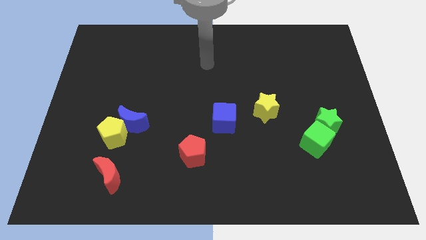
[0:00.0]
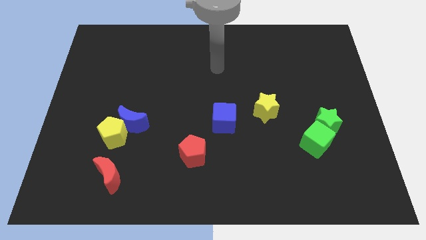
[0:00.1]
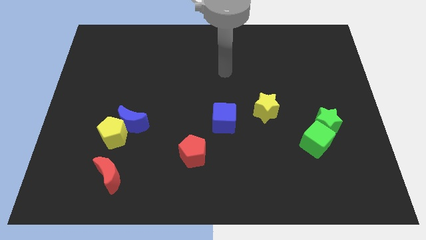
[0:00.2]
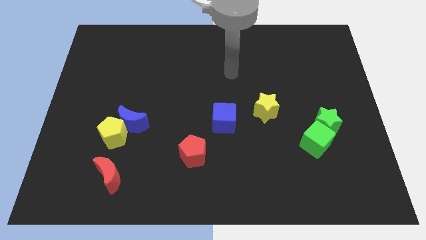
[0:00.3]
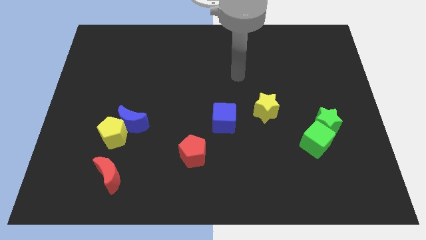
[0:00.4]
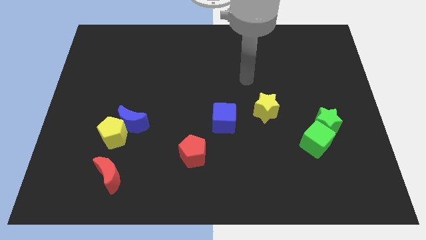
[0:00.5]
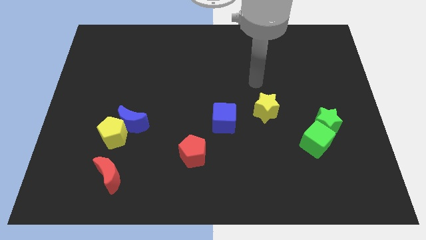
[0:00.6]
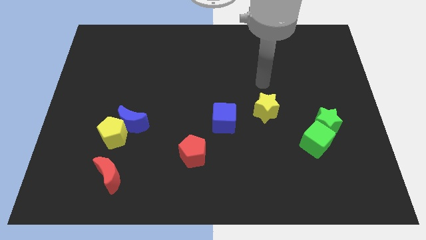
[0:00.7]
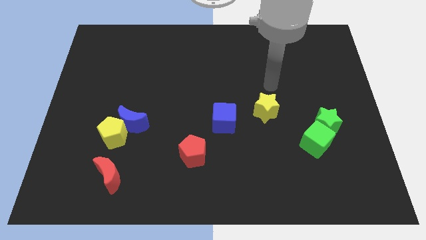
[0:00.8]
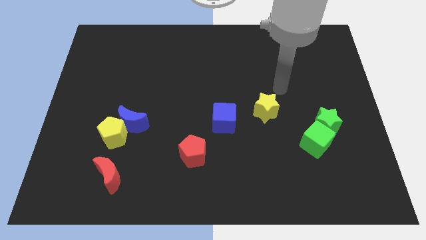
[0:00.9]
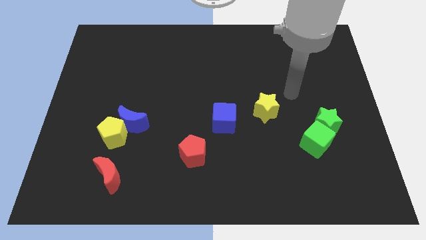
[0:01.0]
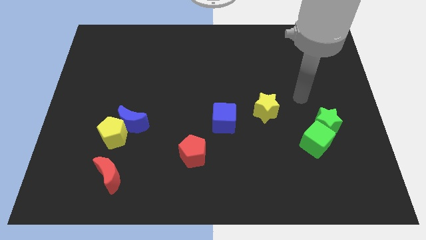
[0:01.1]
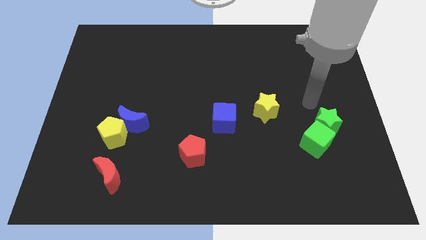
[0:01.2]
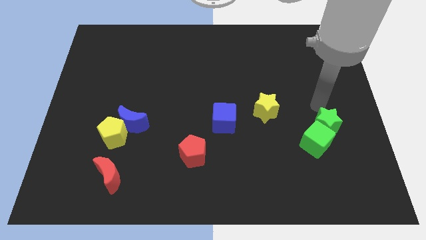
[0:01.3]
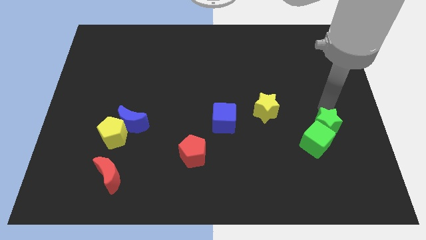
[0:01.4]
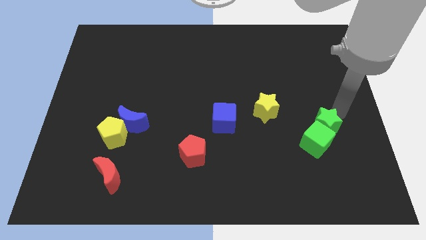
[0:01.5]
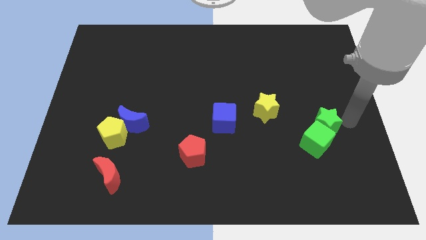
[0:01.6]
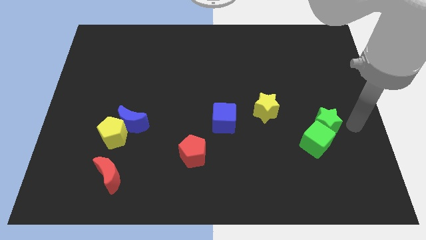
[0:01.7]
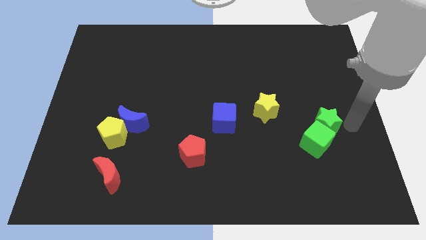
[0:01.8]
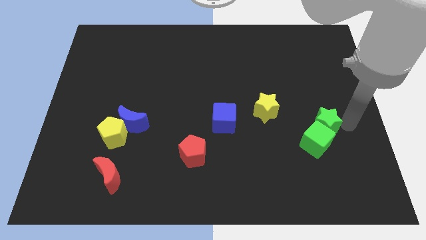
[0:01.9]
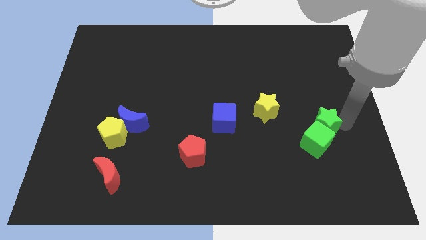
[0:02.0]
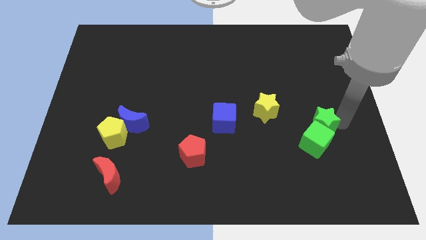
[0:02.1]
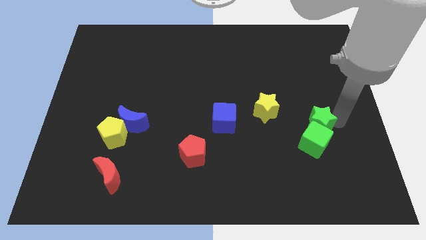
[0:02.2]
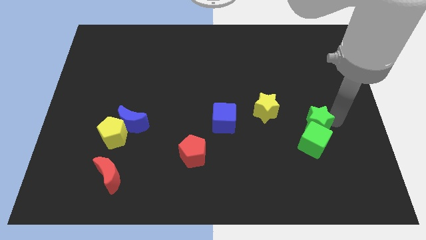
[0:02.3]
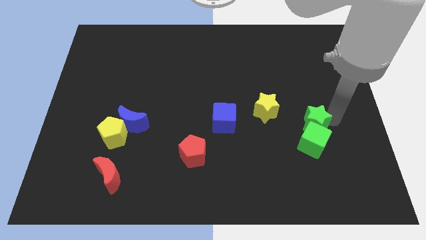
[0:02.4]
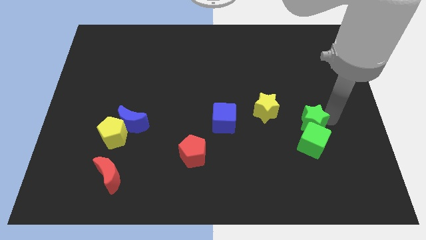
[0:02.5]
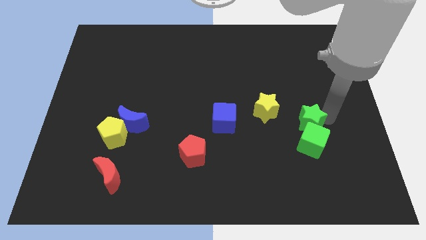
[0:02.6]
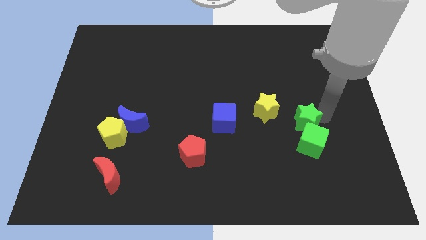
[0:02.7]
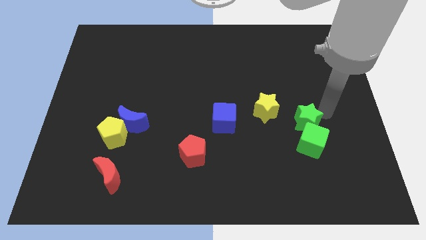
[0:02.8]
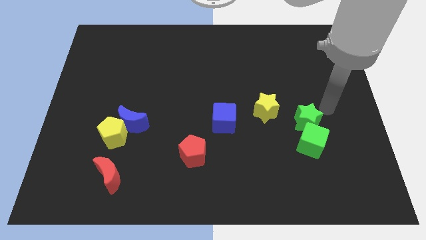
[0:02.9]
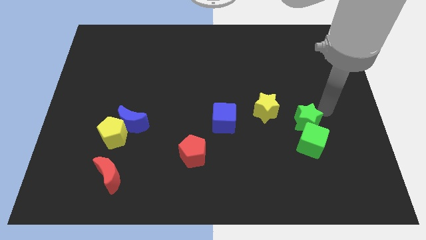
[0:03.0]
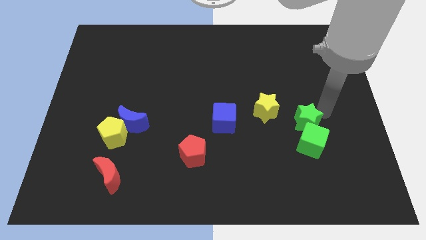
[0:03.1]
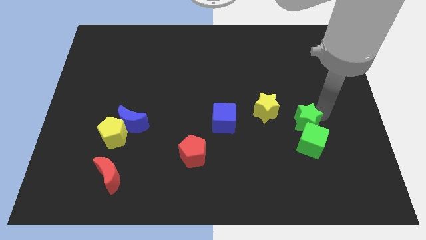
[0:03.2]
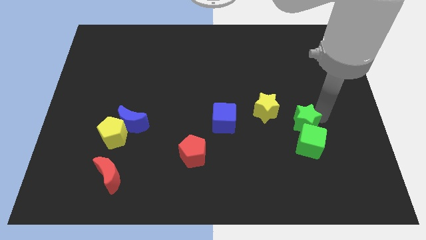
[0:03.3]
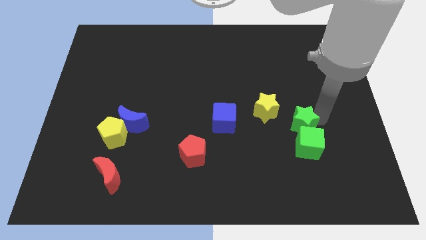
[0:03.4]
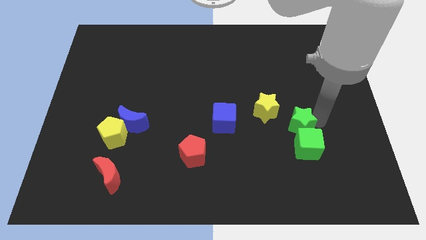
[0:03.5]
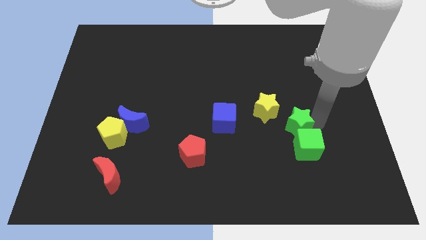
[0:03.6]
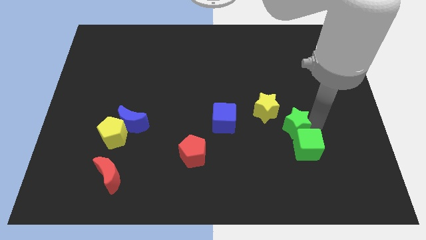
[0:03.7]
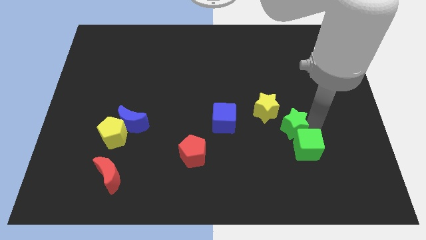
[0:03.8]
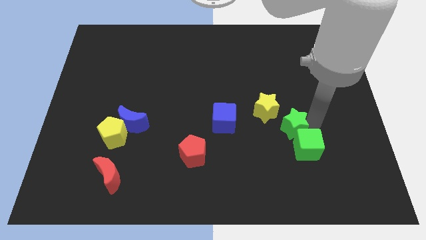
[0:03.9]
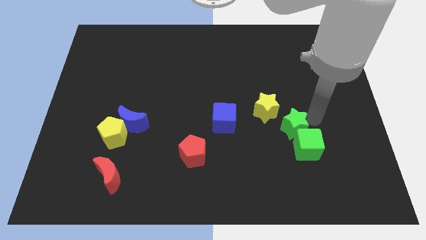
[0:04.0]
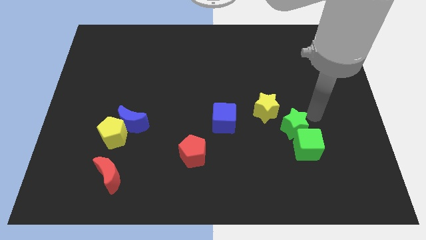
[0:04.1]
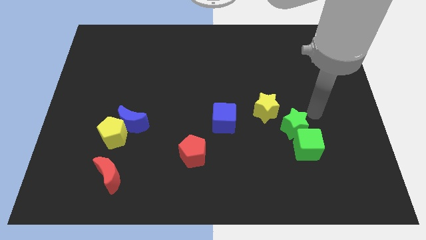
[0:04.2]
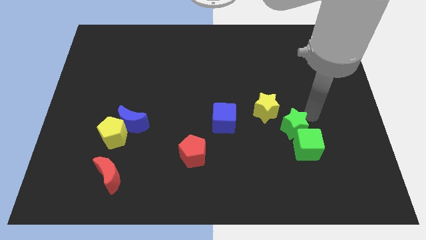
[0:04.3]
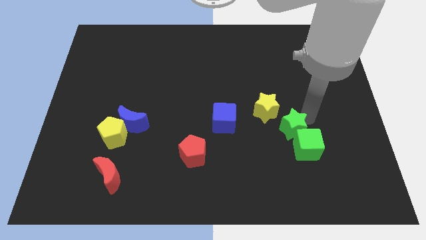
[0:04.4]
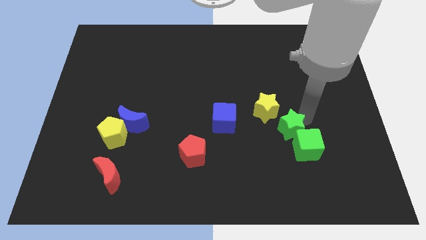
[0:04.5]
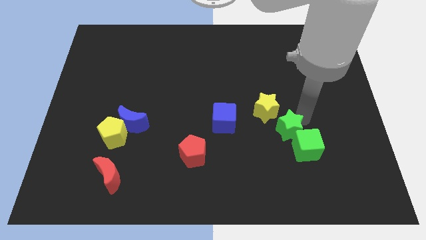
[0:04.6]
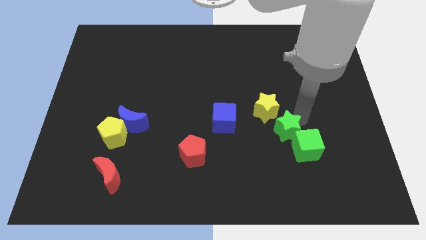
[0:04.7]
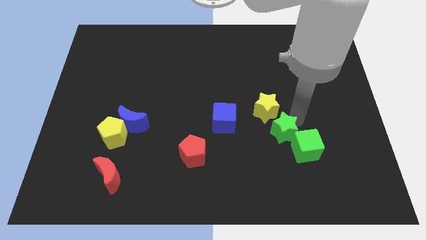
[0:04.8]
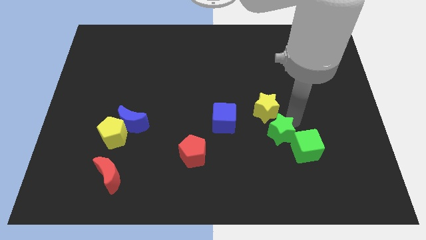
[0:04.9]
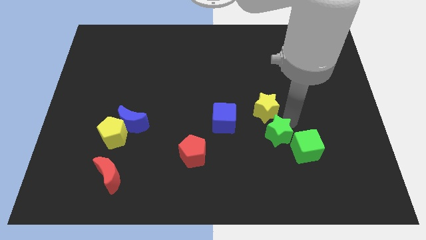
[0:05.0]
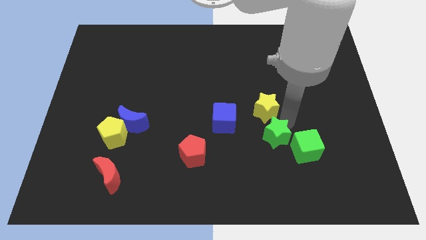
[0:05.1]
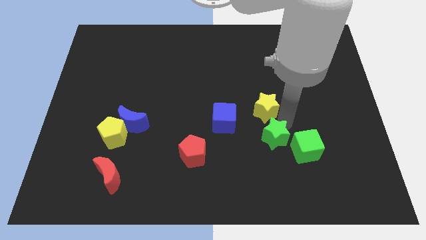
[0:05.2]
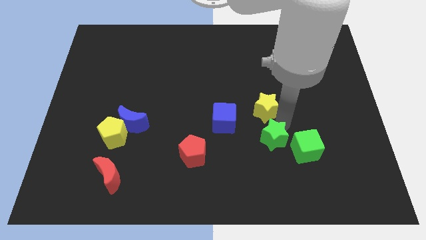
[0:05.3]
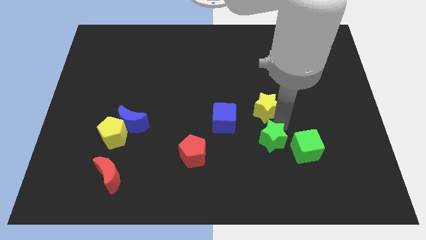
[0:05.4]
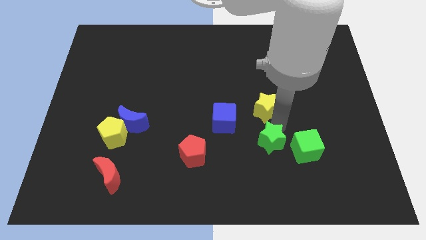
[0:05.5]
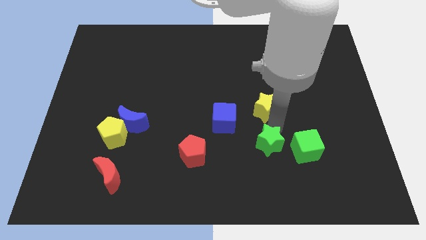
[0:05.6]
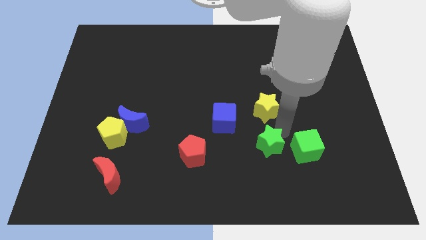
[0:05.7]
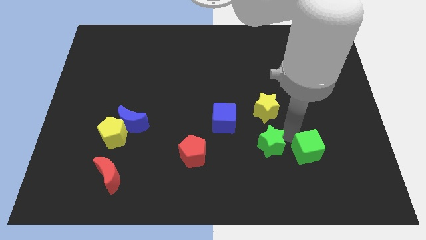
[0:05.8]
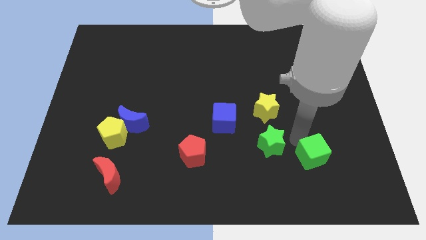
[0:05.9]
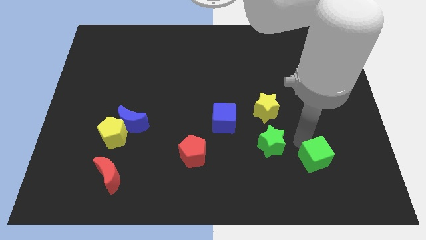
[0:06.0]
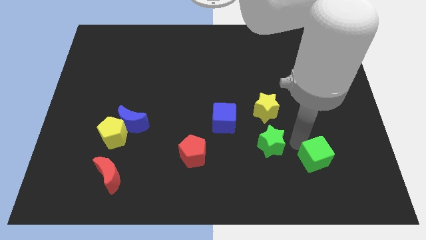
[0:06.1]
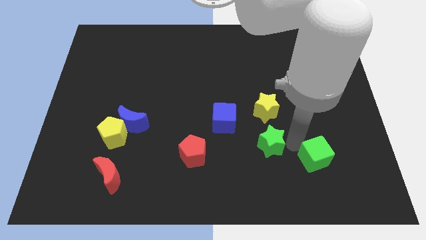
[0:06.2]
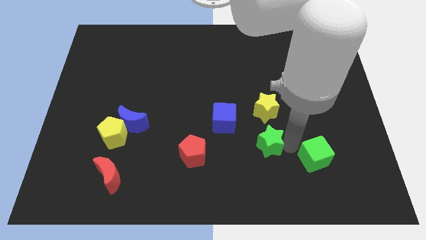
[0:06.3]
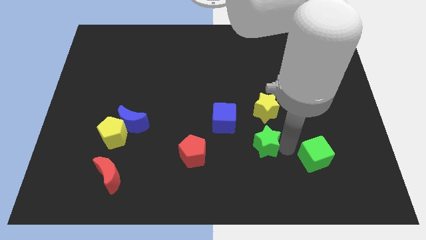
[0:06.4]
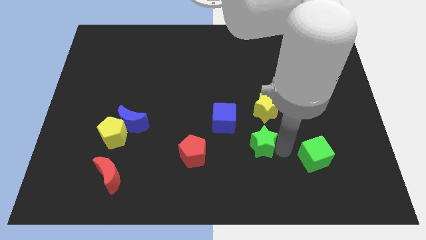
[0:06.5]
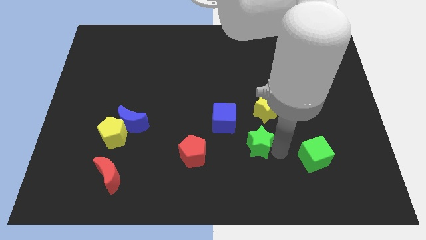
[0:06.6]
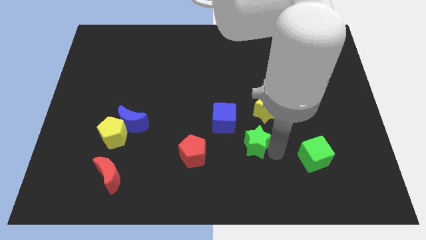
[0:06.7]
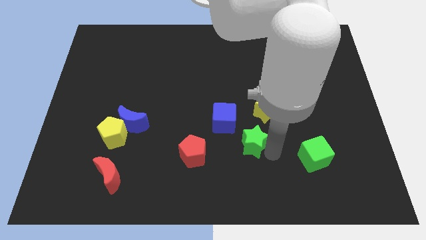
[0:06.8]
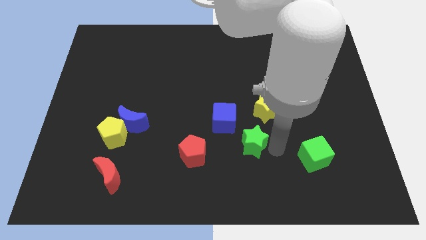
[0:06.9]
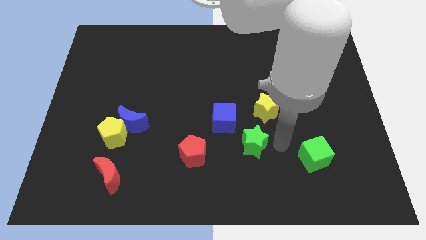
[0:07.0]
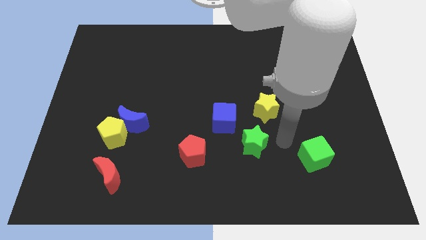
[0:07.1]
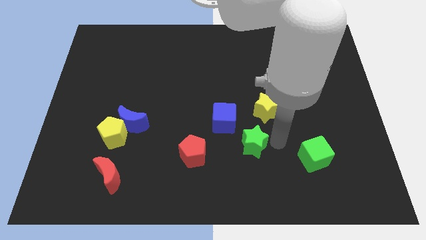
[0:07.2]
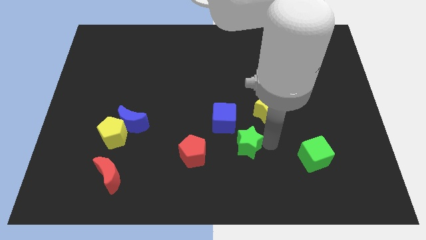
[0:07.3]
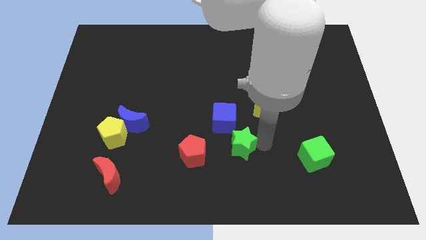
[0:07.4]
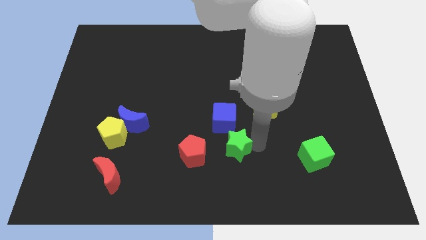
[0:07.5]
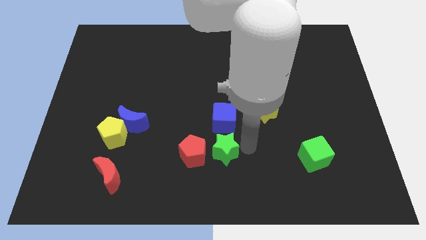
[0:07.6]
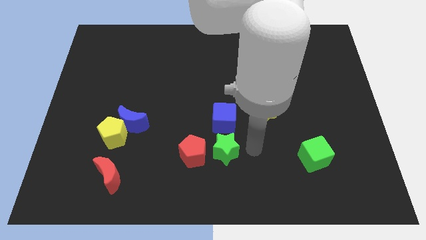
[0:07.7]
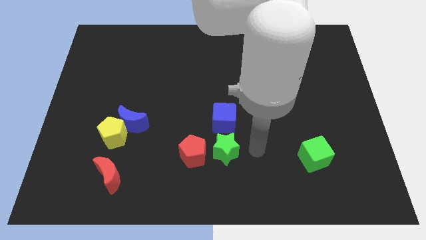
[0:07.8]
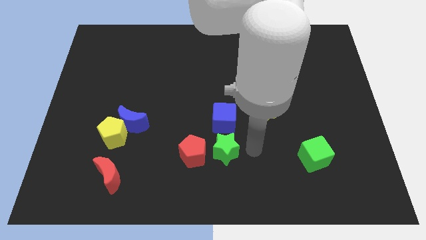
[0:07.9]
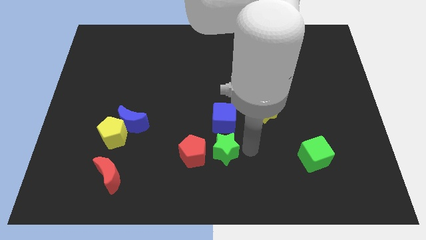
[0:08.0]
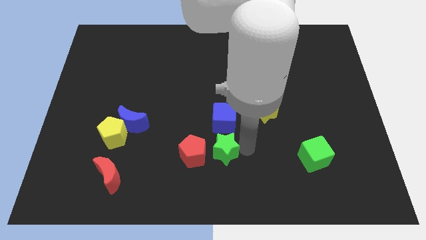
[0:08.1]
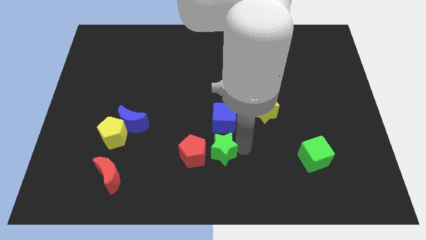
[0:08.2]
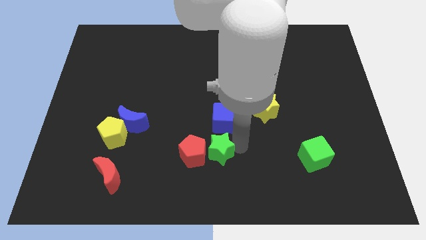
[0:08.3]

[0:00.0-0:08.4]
slide the green star next to the red pentagon
